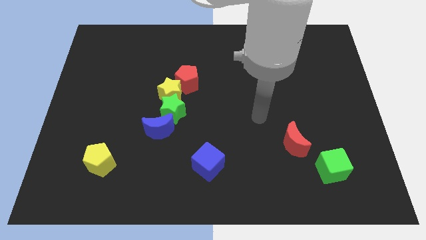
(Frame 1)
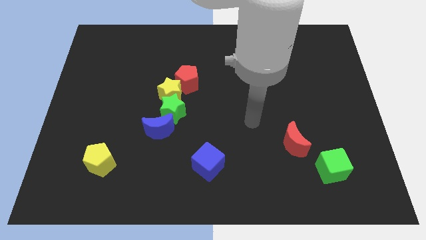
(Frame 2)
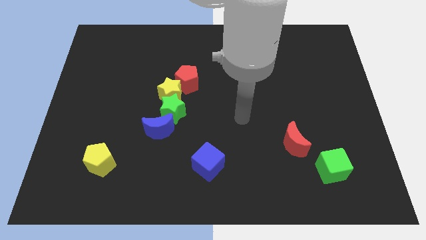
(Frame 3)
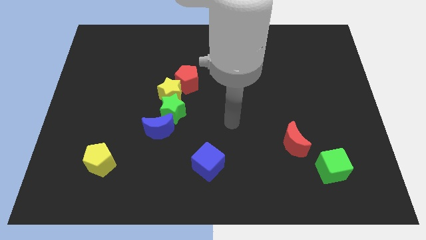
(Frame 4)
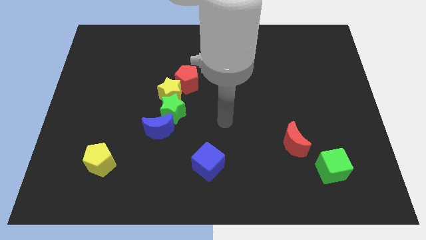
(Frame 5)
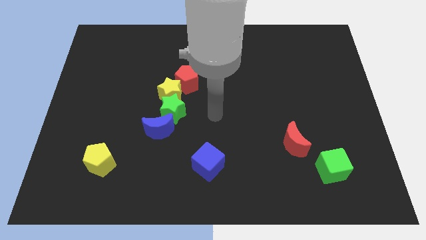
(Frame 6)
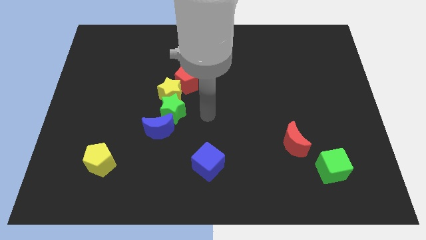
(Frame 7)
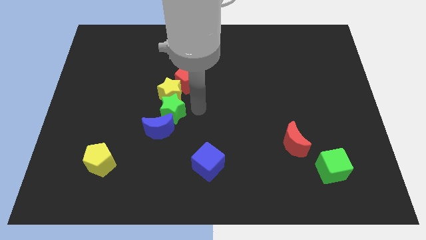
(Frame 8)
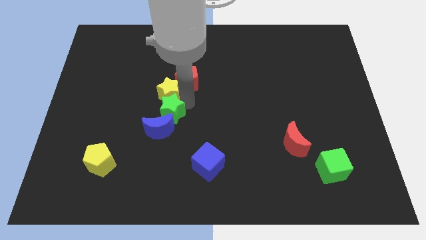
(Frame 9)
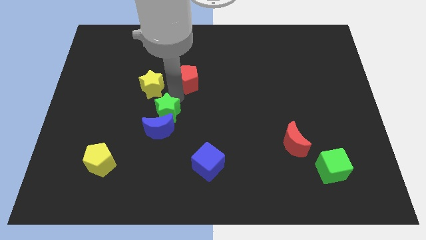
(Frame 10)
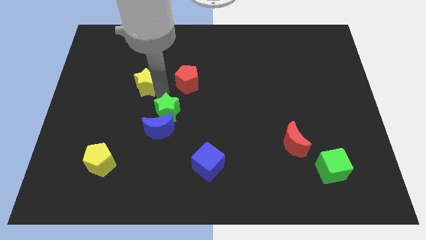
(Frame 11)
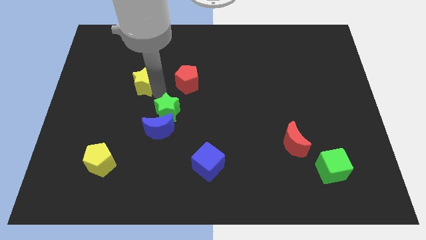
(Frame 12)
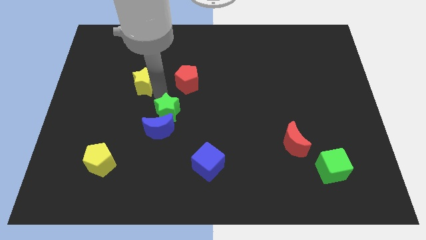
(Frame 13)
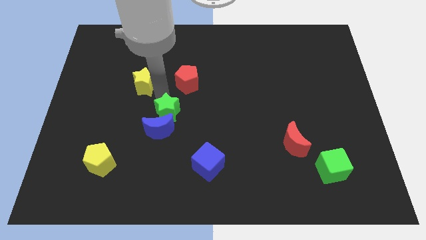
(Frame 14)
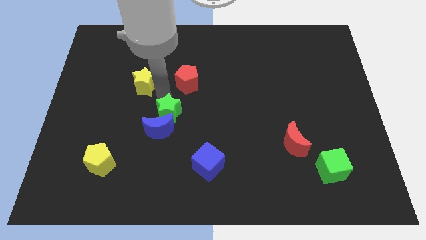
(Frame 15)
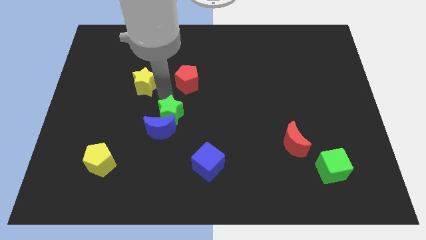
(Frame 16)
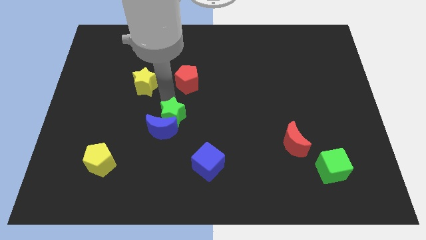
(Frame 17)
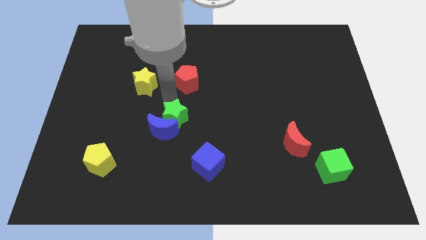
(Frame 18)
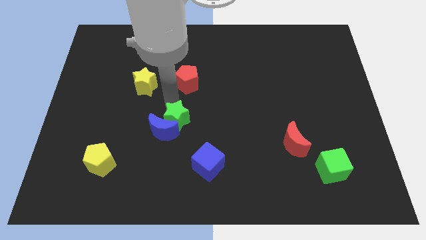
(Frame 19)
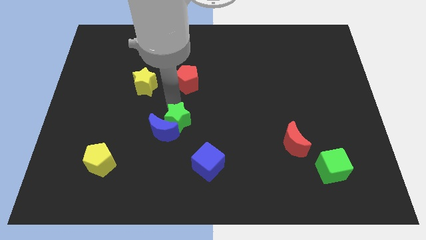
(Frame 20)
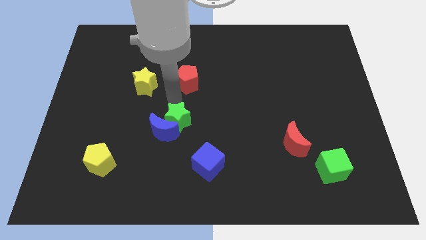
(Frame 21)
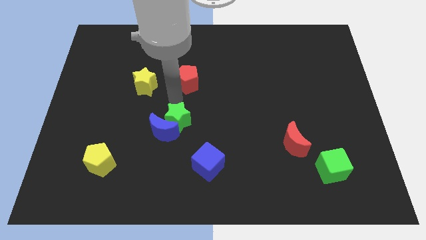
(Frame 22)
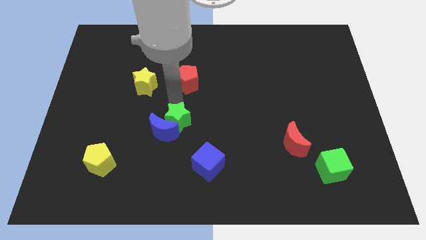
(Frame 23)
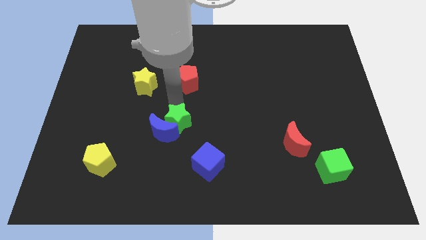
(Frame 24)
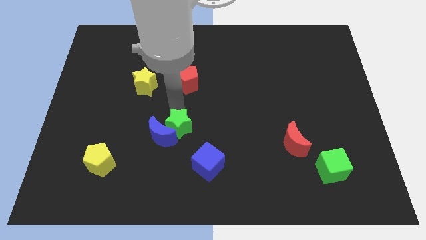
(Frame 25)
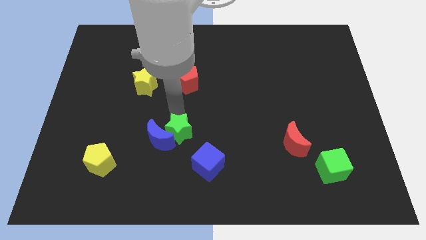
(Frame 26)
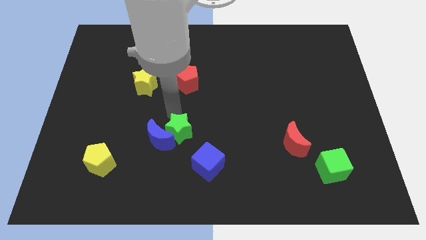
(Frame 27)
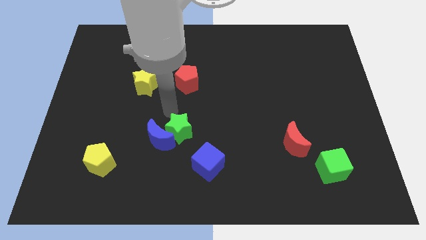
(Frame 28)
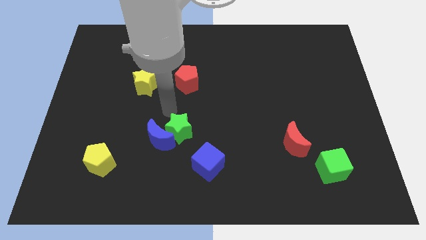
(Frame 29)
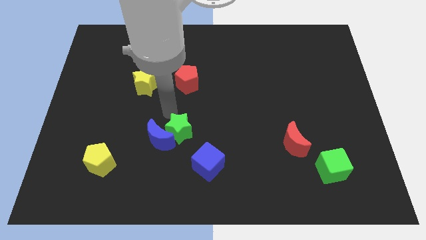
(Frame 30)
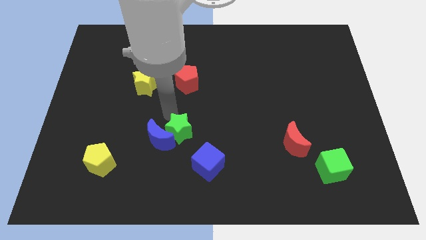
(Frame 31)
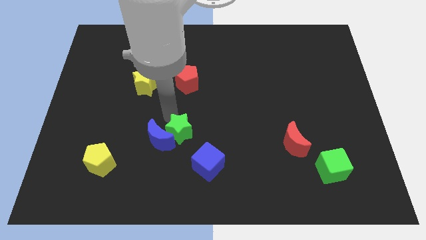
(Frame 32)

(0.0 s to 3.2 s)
pull the green star apart from the yellow star, blue moon, and red pentagon

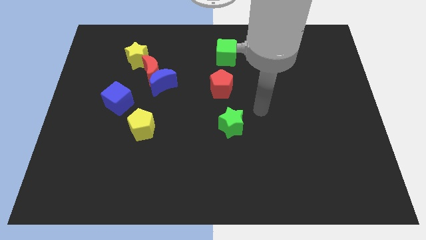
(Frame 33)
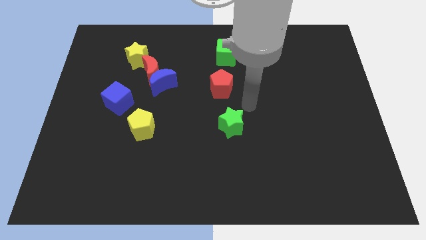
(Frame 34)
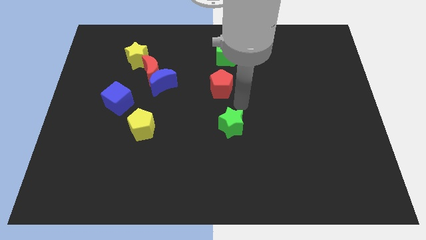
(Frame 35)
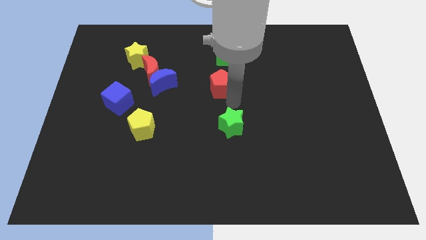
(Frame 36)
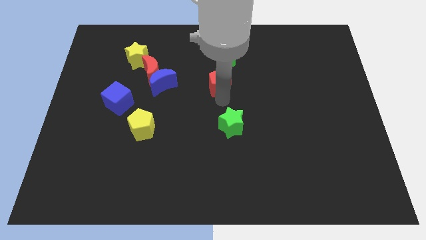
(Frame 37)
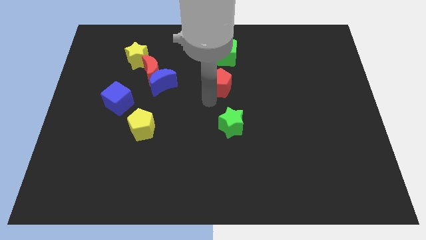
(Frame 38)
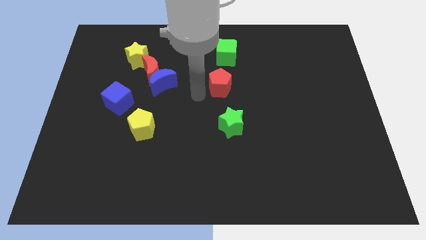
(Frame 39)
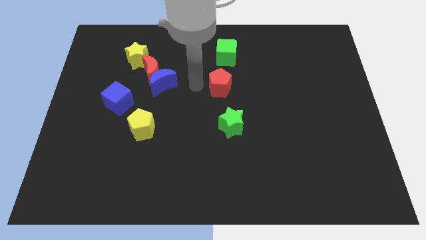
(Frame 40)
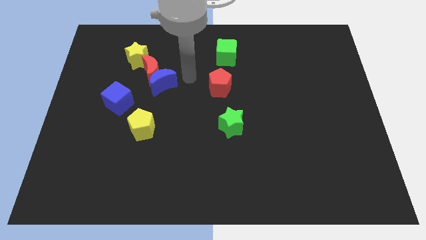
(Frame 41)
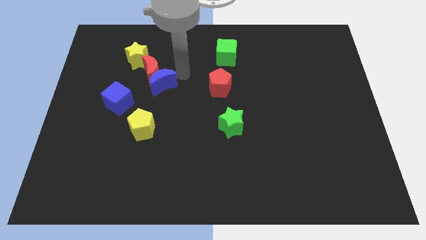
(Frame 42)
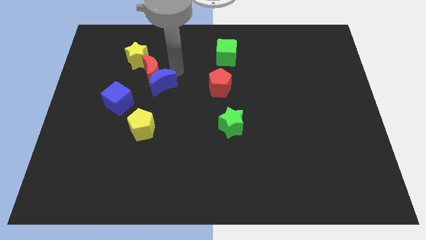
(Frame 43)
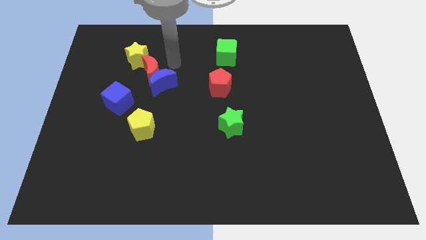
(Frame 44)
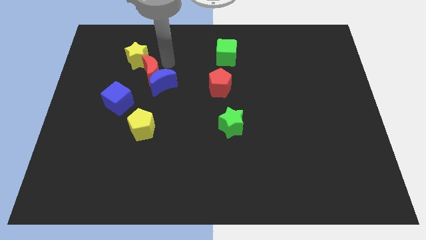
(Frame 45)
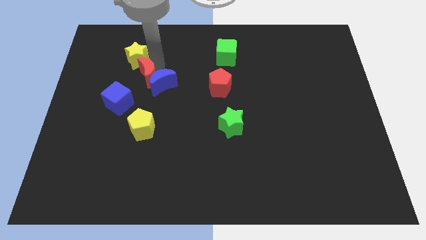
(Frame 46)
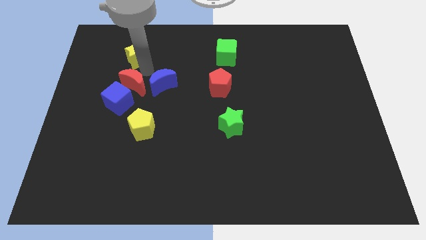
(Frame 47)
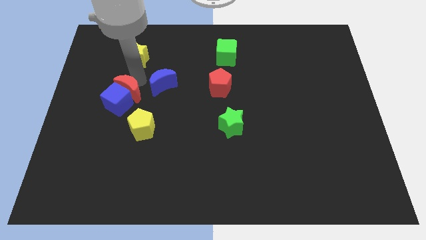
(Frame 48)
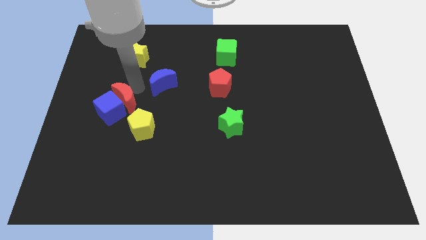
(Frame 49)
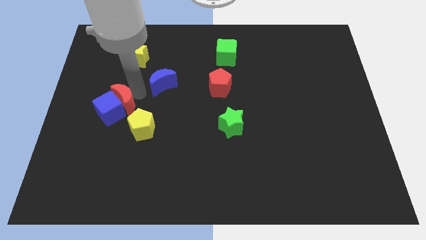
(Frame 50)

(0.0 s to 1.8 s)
pull the blue moon apart from the red moon

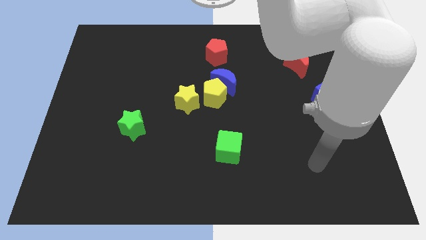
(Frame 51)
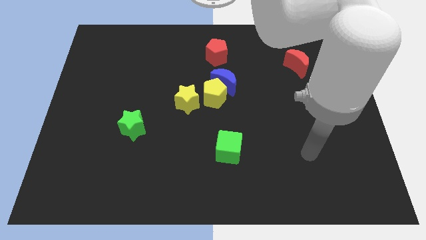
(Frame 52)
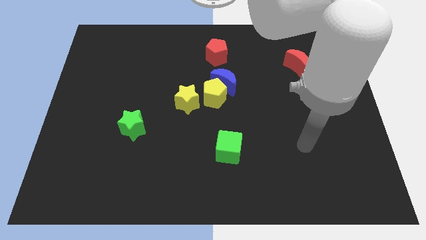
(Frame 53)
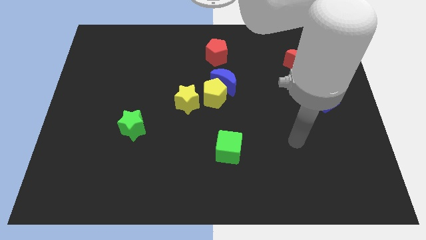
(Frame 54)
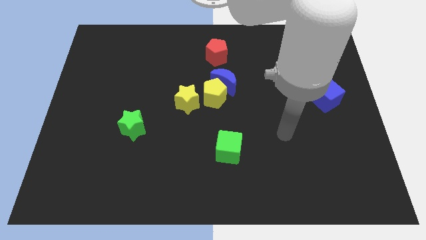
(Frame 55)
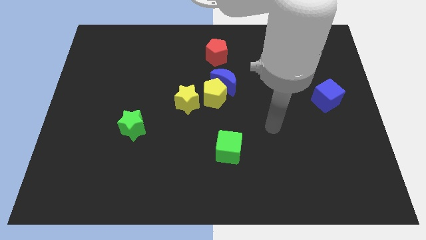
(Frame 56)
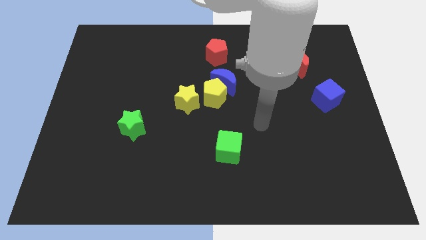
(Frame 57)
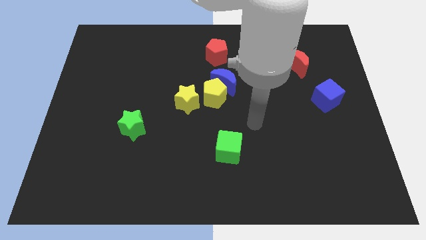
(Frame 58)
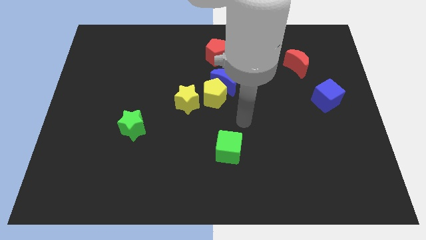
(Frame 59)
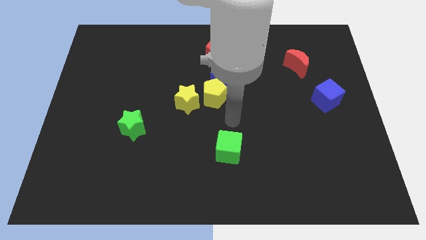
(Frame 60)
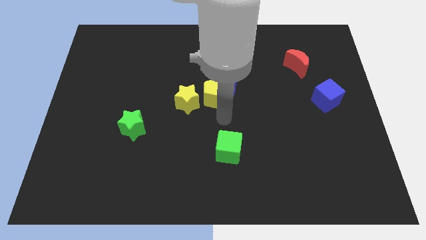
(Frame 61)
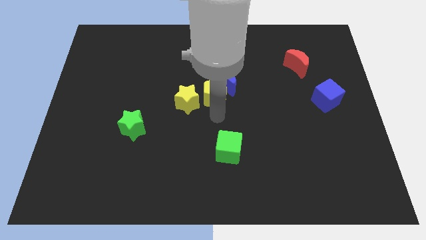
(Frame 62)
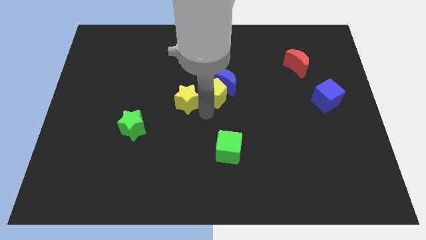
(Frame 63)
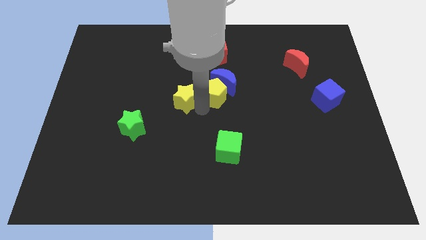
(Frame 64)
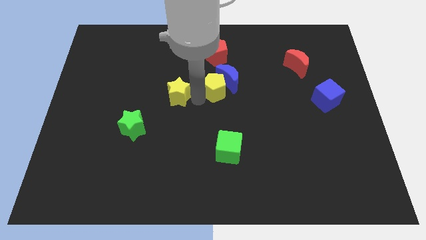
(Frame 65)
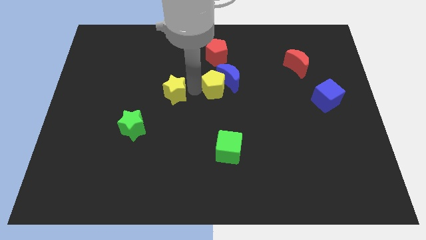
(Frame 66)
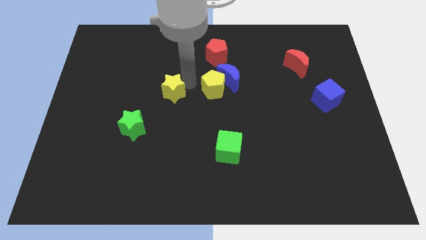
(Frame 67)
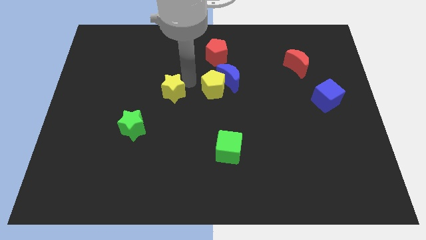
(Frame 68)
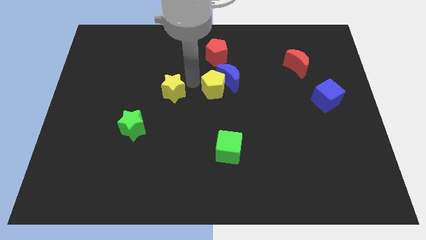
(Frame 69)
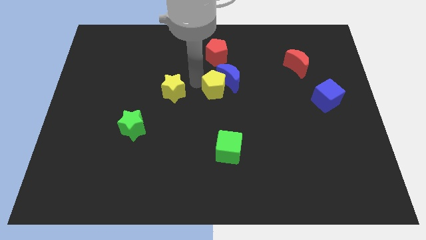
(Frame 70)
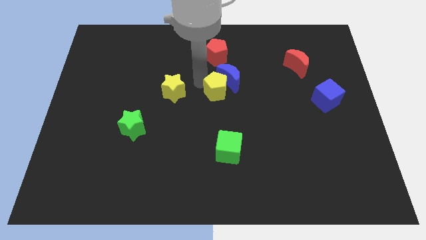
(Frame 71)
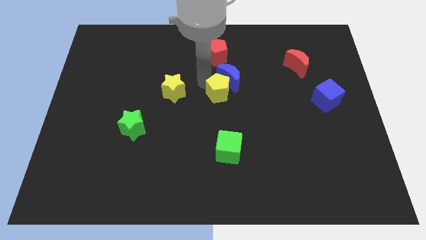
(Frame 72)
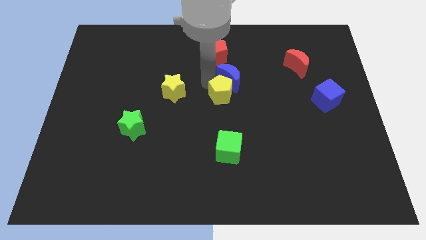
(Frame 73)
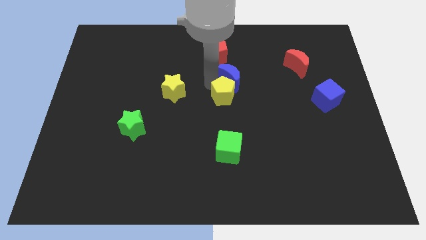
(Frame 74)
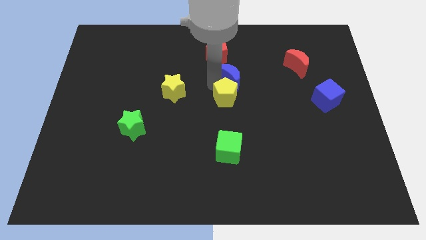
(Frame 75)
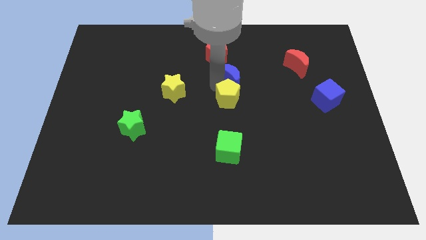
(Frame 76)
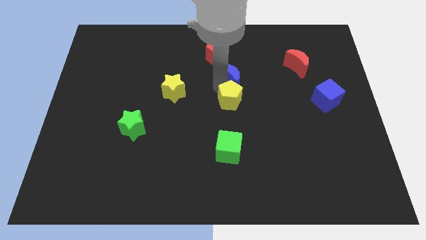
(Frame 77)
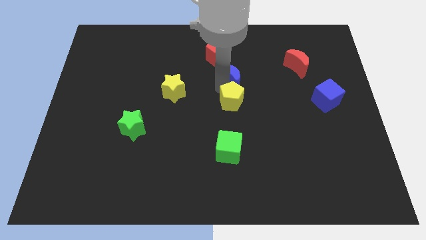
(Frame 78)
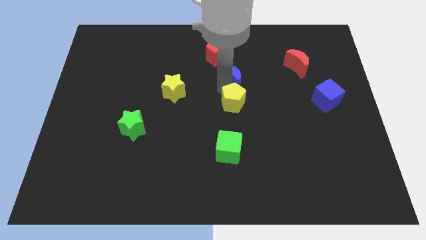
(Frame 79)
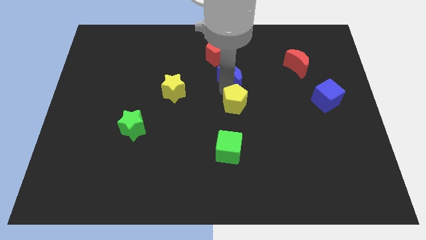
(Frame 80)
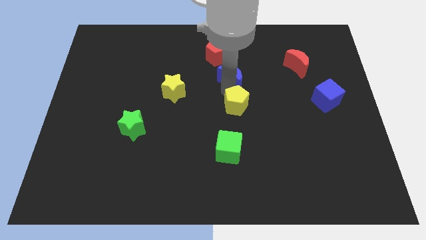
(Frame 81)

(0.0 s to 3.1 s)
separate the yellow pentagon from the blue moon and yellow star

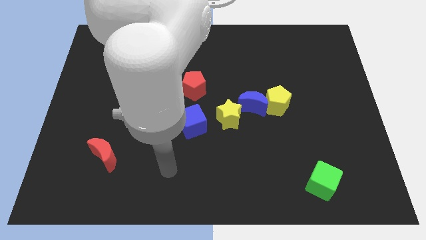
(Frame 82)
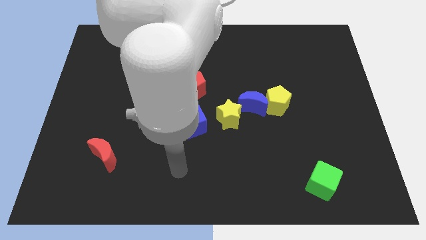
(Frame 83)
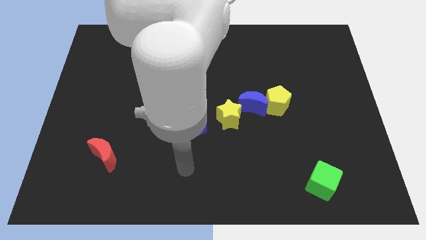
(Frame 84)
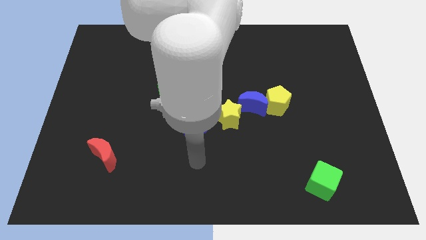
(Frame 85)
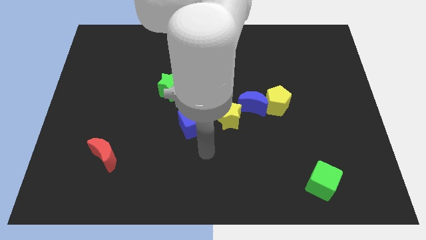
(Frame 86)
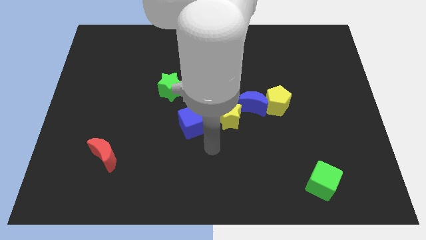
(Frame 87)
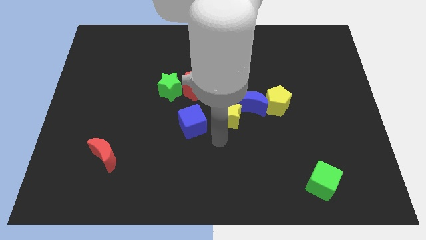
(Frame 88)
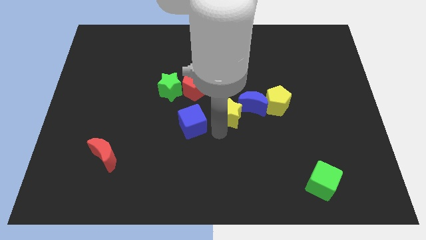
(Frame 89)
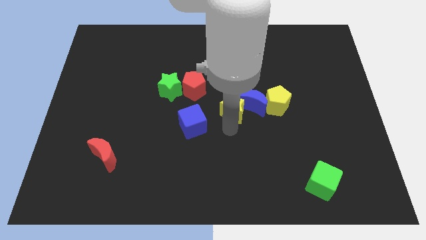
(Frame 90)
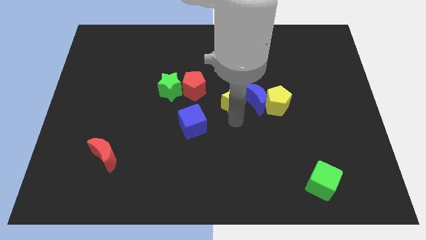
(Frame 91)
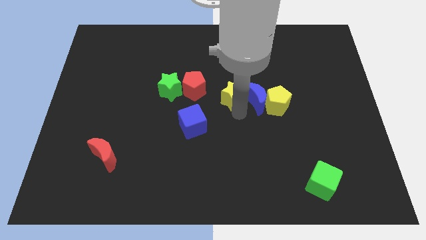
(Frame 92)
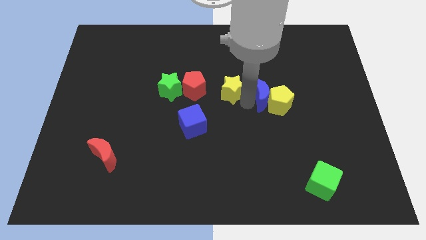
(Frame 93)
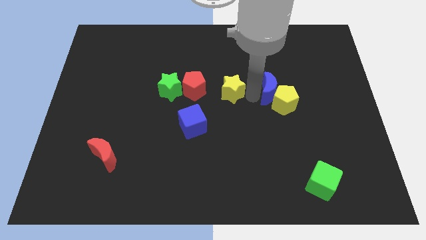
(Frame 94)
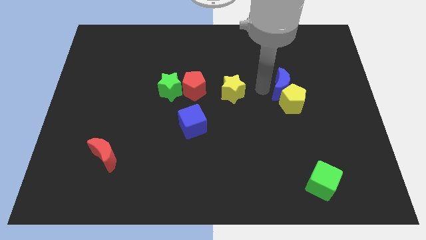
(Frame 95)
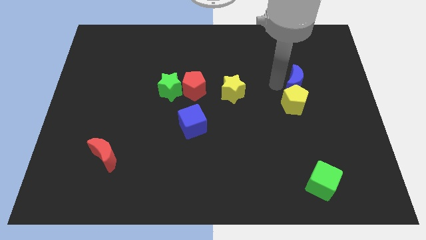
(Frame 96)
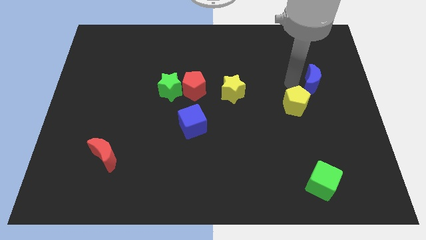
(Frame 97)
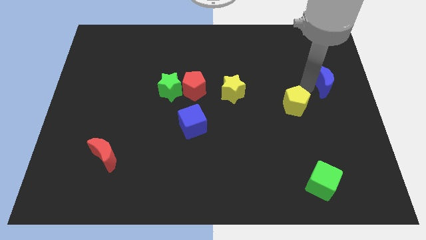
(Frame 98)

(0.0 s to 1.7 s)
separate the yellow pentagon from the blue moon
